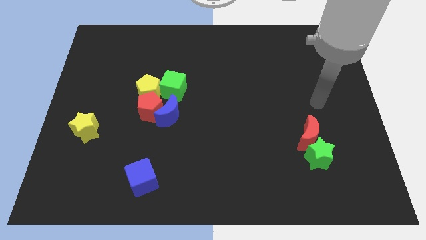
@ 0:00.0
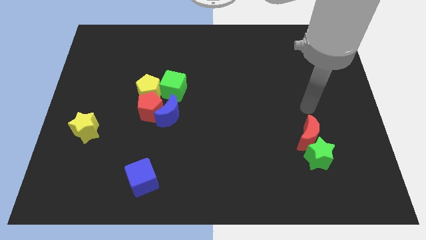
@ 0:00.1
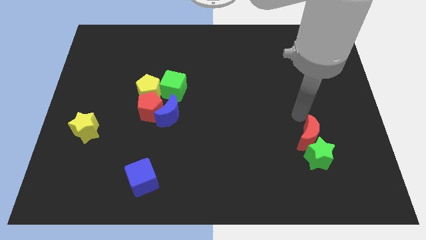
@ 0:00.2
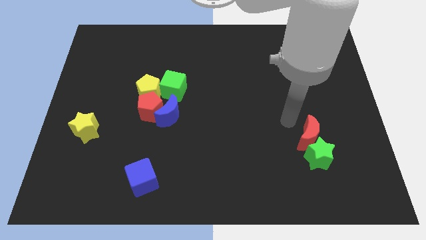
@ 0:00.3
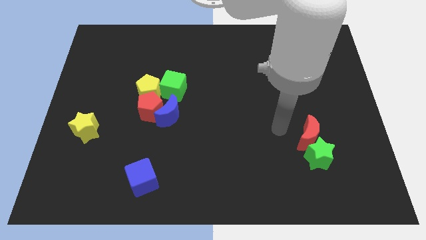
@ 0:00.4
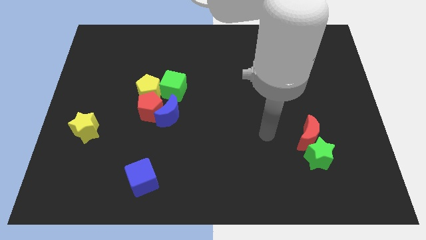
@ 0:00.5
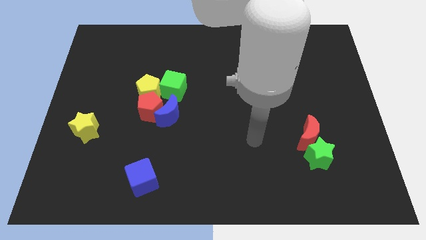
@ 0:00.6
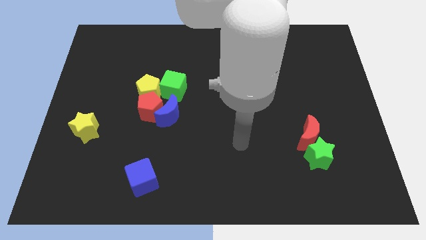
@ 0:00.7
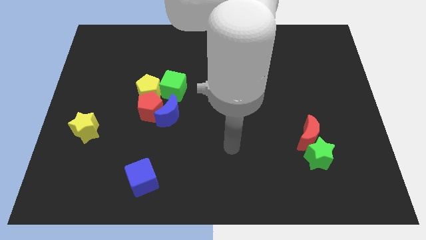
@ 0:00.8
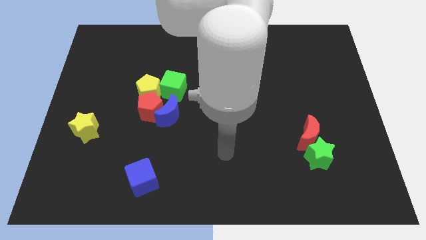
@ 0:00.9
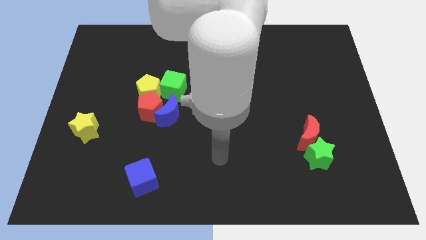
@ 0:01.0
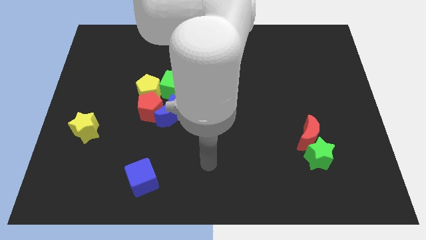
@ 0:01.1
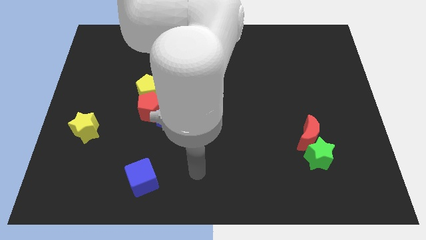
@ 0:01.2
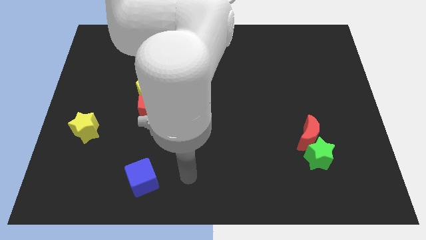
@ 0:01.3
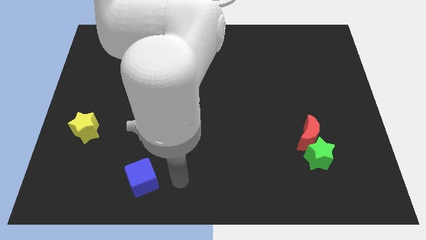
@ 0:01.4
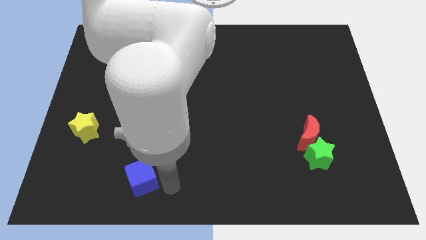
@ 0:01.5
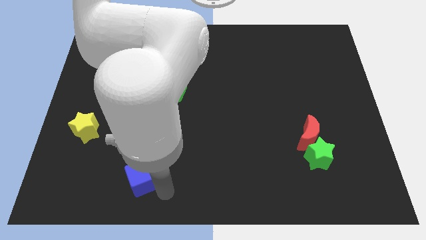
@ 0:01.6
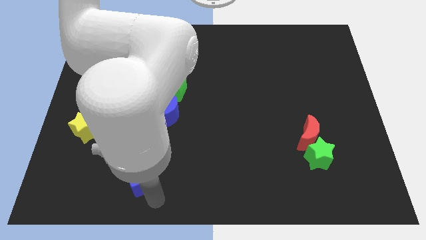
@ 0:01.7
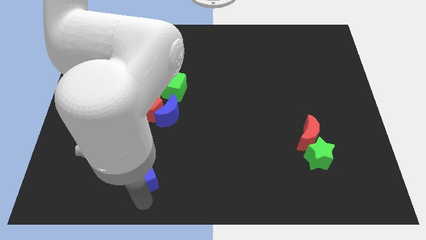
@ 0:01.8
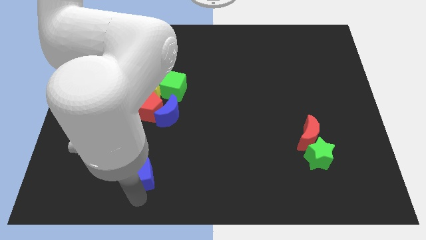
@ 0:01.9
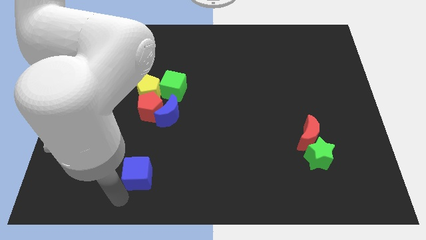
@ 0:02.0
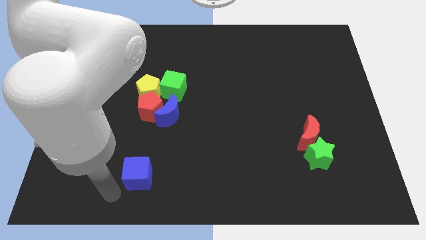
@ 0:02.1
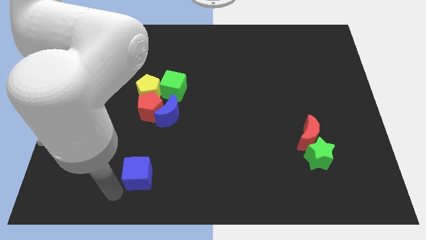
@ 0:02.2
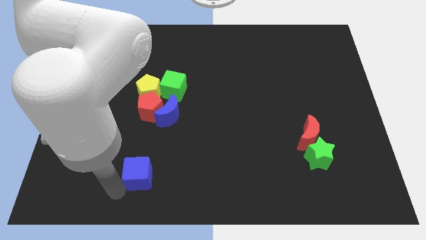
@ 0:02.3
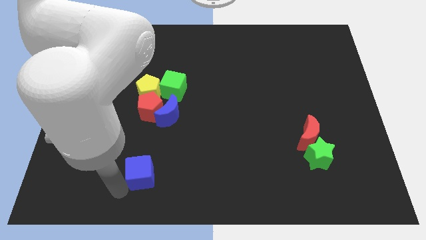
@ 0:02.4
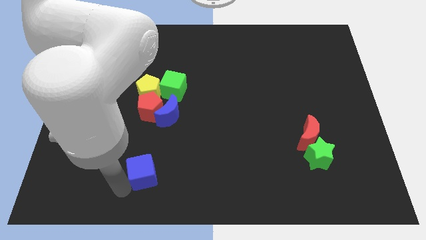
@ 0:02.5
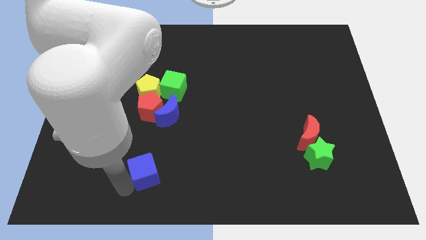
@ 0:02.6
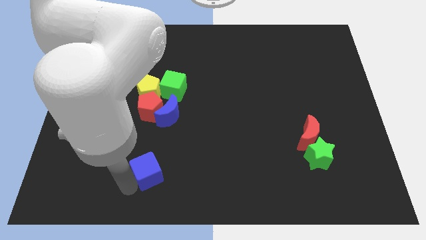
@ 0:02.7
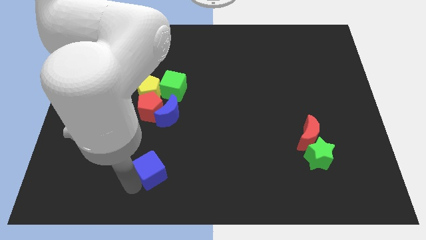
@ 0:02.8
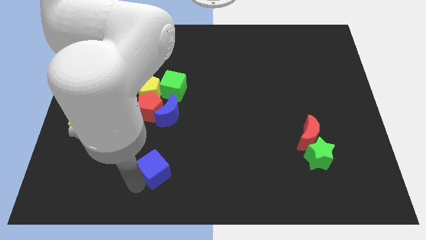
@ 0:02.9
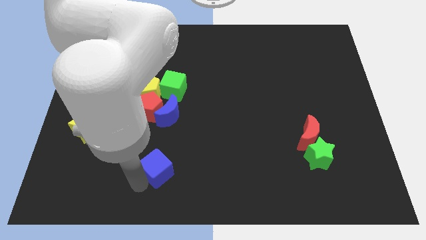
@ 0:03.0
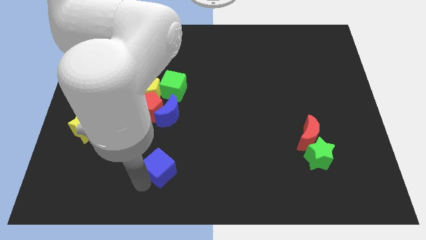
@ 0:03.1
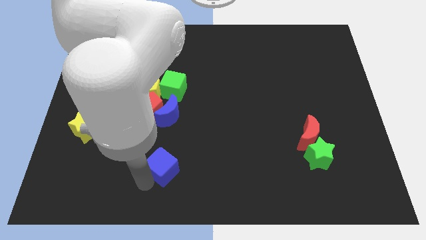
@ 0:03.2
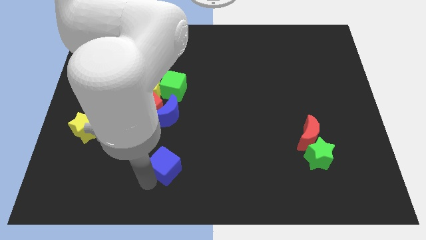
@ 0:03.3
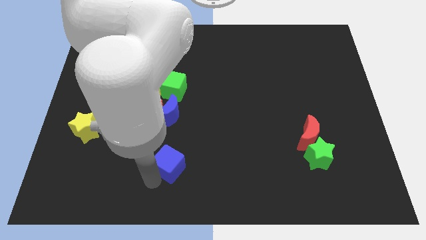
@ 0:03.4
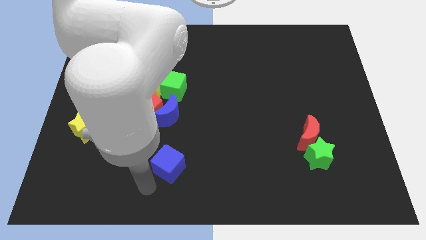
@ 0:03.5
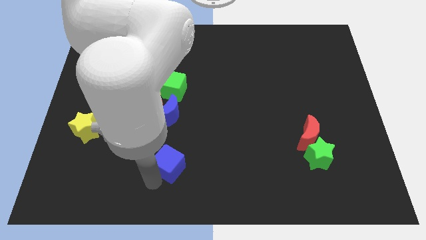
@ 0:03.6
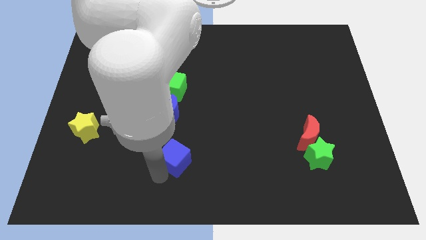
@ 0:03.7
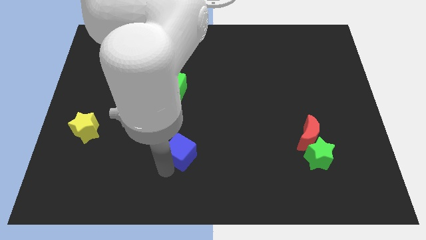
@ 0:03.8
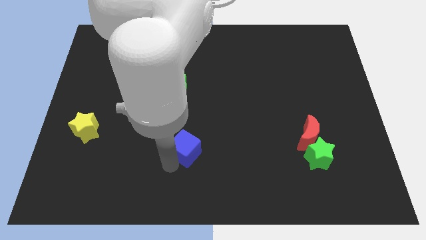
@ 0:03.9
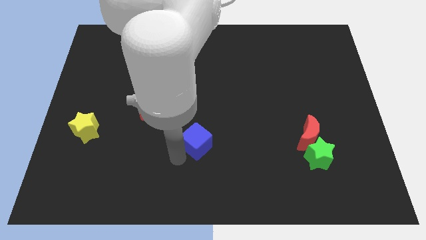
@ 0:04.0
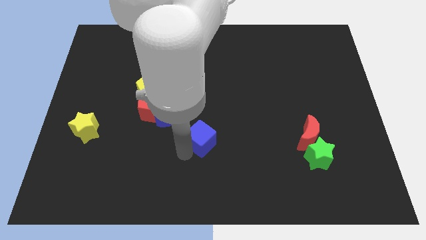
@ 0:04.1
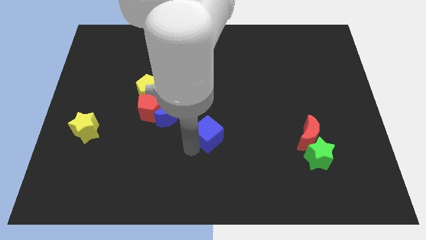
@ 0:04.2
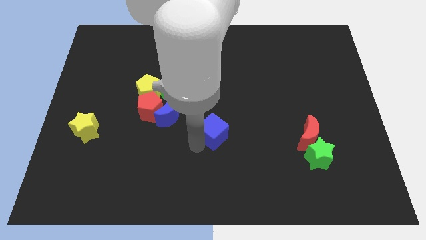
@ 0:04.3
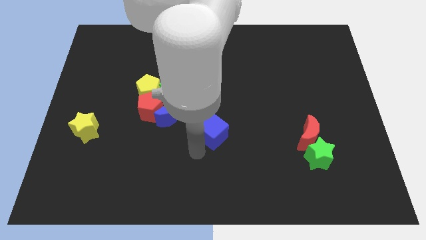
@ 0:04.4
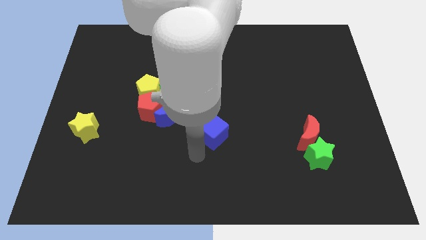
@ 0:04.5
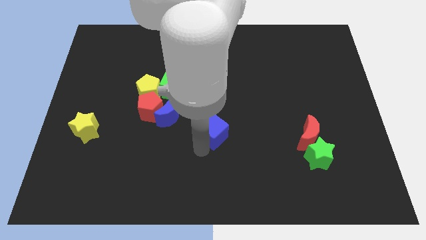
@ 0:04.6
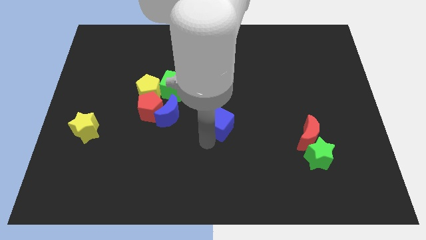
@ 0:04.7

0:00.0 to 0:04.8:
slide the blue cube upwards and right diagonally

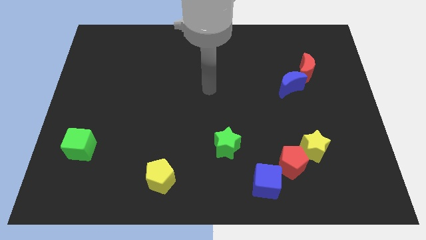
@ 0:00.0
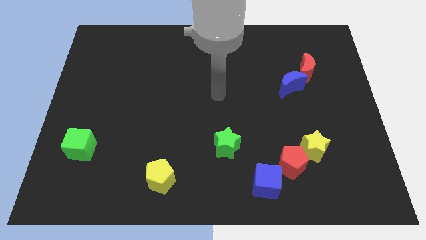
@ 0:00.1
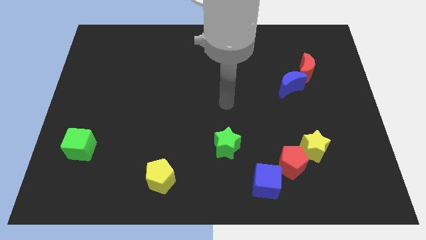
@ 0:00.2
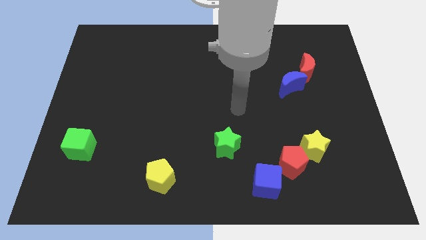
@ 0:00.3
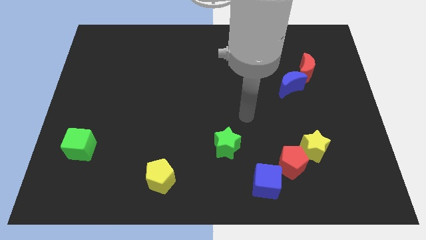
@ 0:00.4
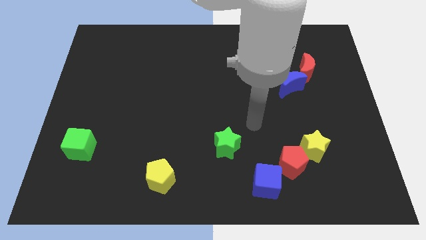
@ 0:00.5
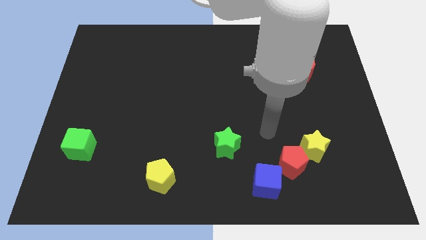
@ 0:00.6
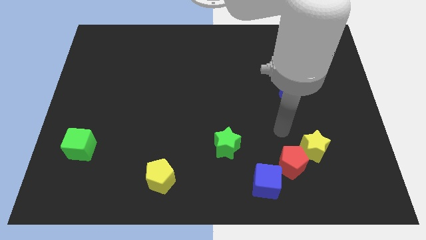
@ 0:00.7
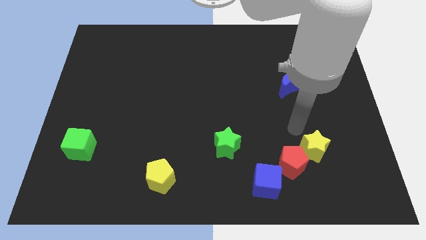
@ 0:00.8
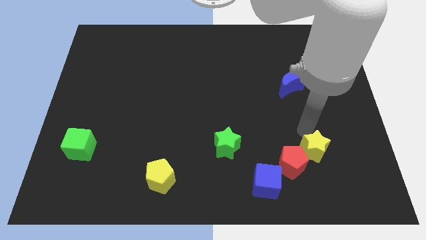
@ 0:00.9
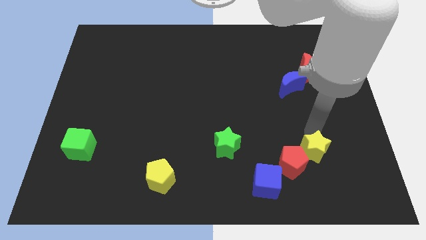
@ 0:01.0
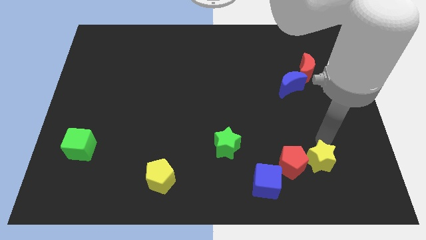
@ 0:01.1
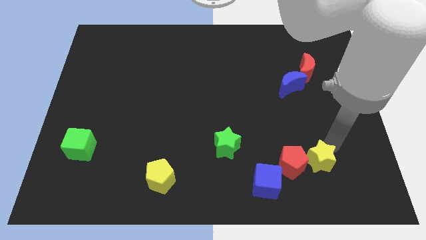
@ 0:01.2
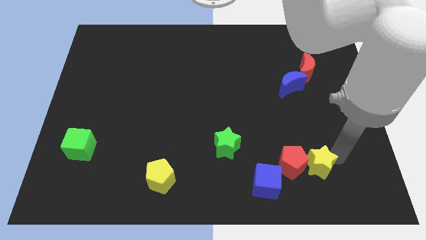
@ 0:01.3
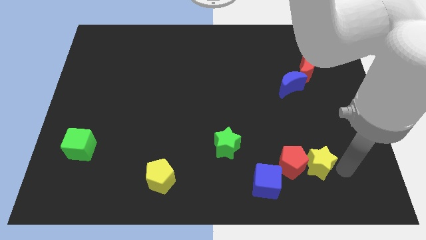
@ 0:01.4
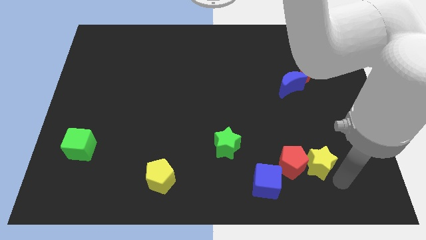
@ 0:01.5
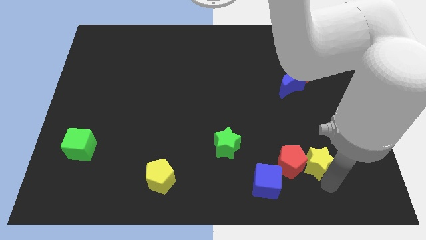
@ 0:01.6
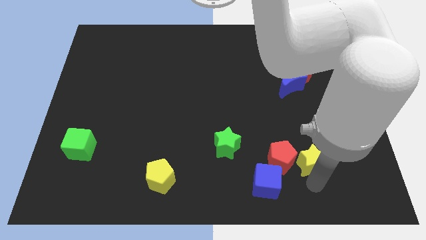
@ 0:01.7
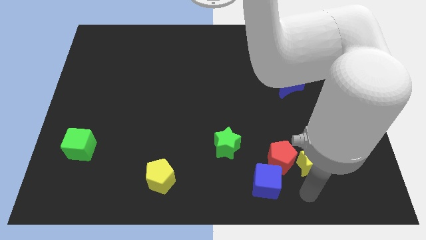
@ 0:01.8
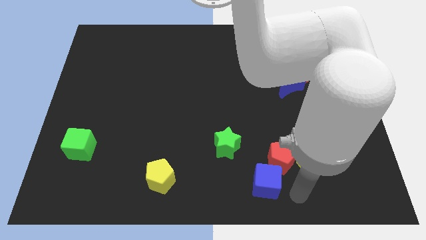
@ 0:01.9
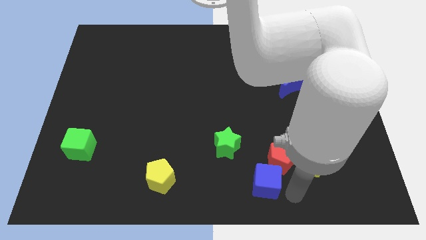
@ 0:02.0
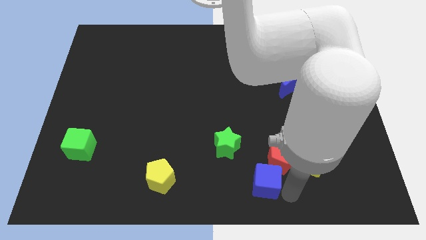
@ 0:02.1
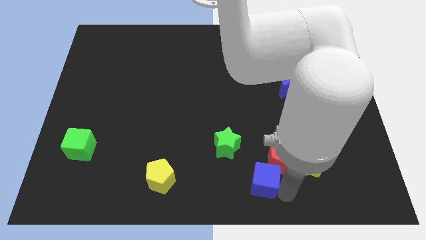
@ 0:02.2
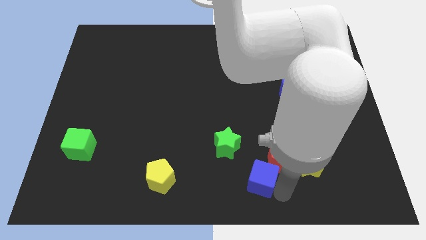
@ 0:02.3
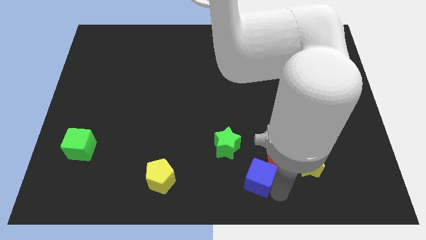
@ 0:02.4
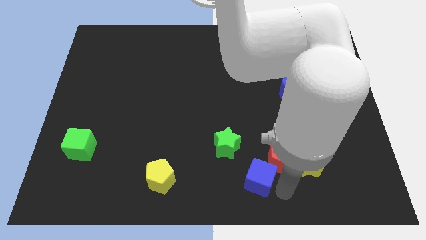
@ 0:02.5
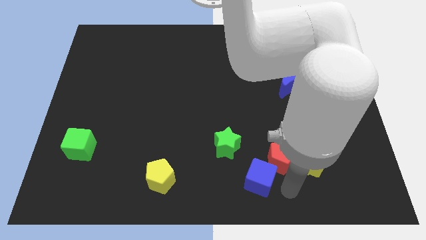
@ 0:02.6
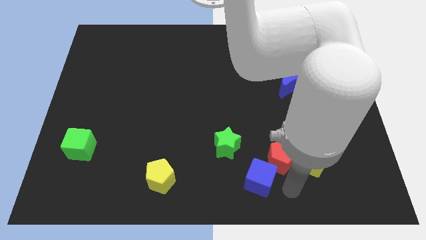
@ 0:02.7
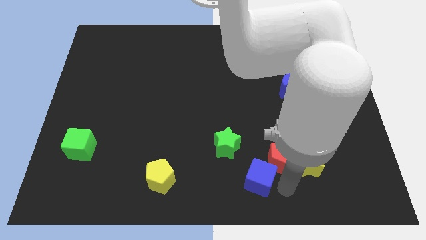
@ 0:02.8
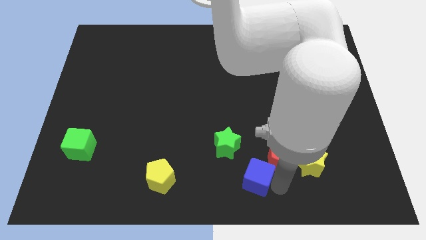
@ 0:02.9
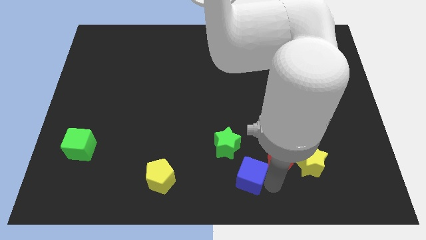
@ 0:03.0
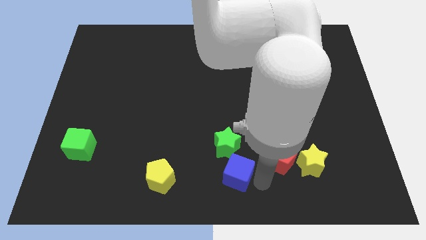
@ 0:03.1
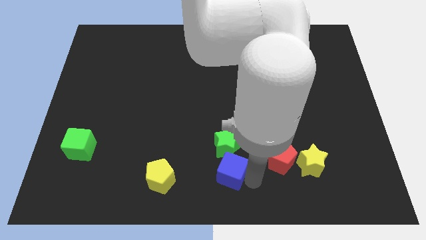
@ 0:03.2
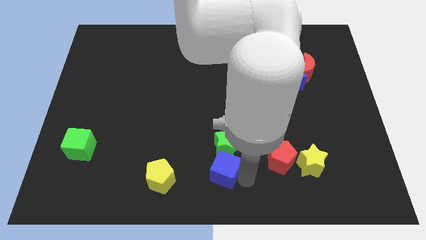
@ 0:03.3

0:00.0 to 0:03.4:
slightly slide the blue cube diagonally upwards and to the left
